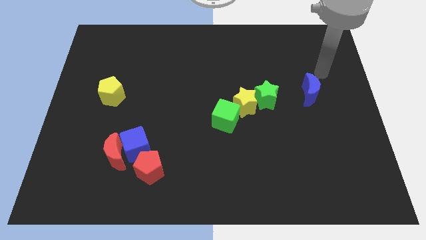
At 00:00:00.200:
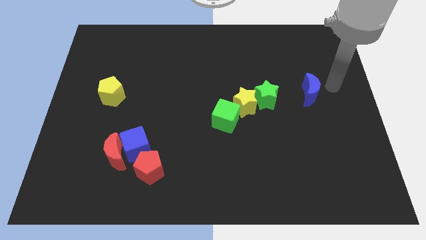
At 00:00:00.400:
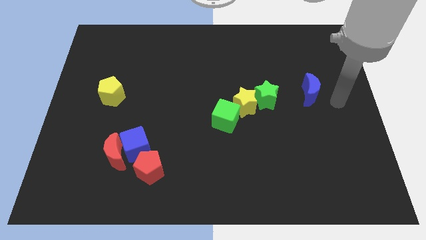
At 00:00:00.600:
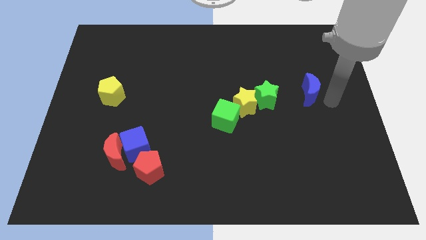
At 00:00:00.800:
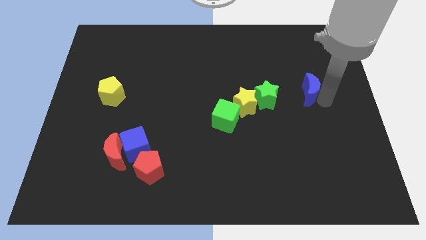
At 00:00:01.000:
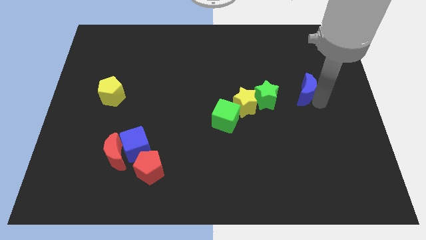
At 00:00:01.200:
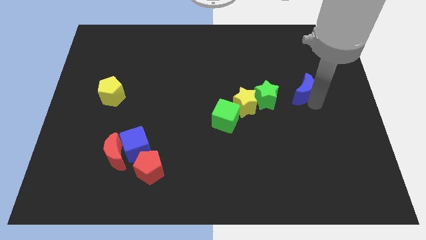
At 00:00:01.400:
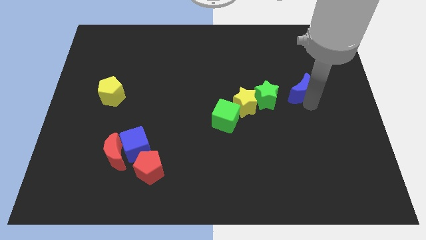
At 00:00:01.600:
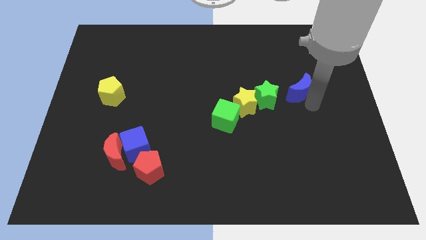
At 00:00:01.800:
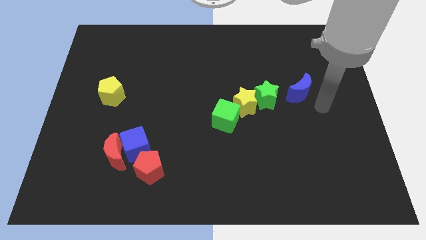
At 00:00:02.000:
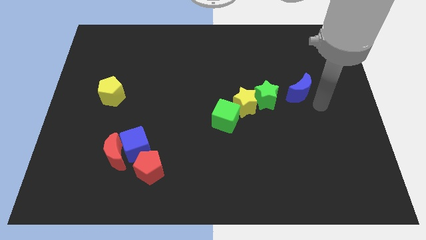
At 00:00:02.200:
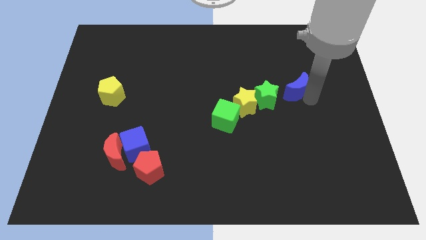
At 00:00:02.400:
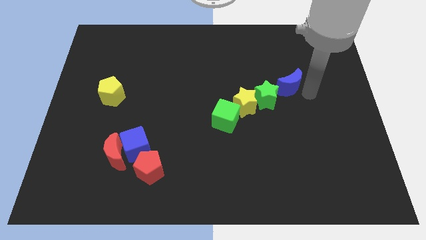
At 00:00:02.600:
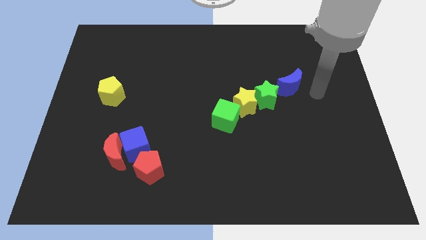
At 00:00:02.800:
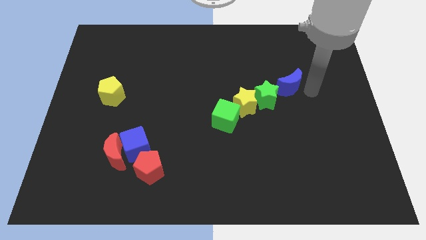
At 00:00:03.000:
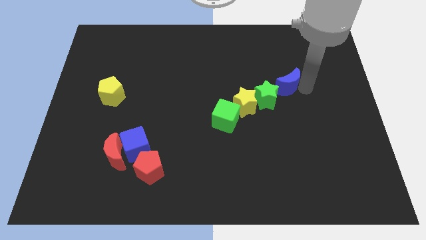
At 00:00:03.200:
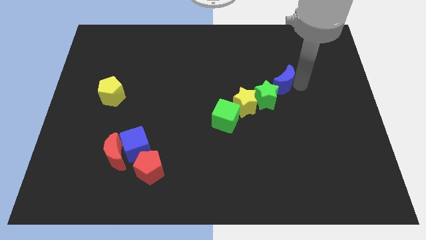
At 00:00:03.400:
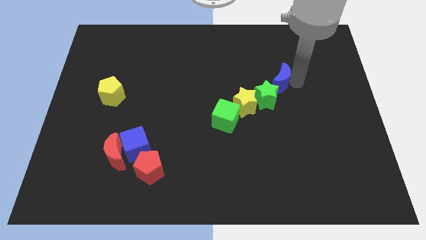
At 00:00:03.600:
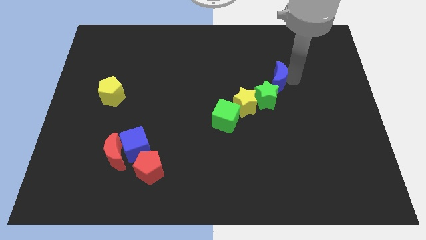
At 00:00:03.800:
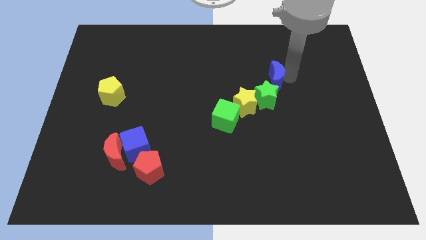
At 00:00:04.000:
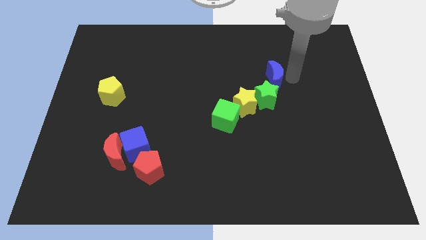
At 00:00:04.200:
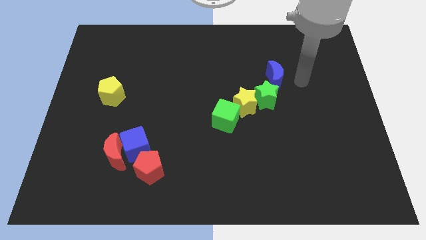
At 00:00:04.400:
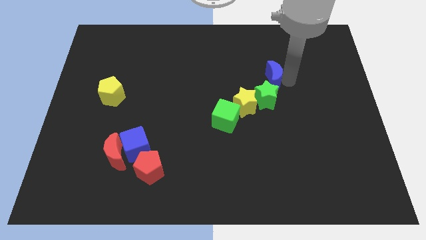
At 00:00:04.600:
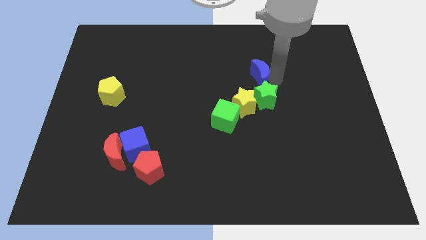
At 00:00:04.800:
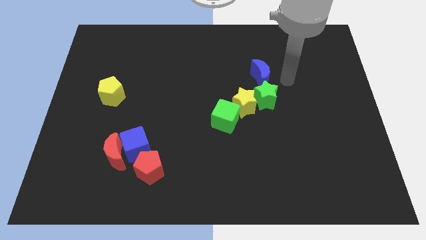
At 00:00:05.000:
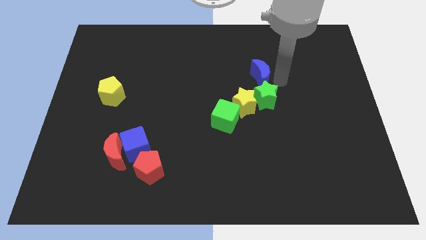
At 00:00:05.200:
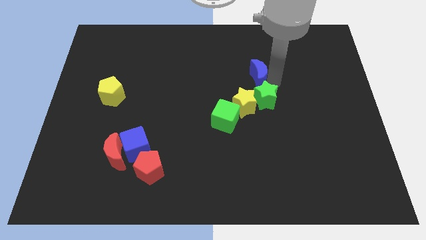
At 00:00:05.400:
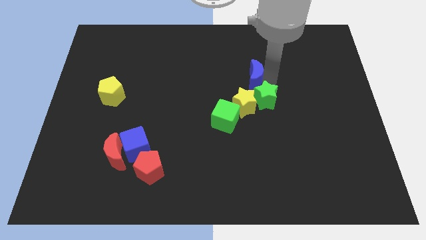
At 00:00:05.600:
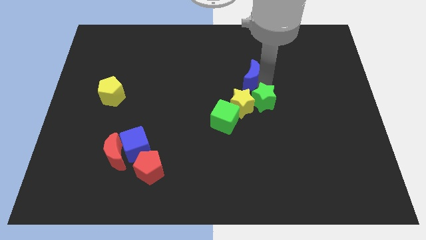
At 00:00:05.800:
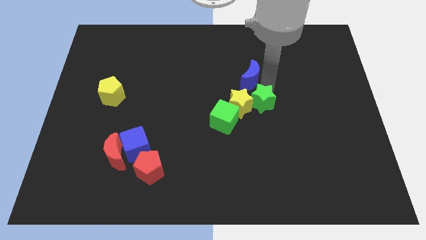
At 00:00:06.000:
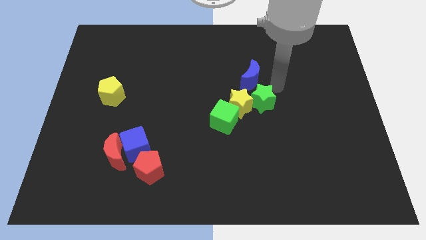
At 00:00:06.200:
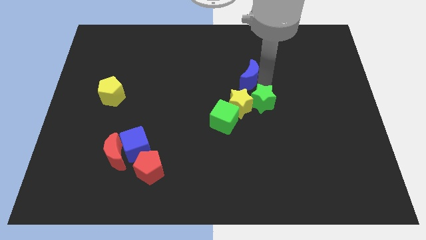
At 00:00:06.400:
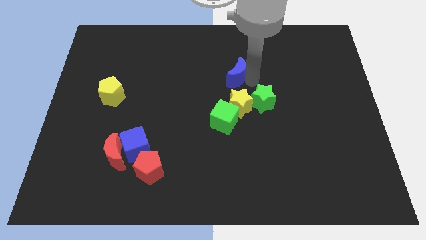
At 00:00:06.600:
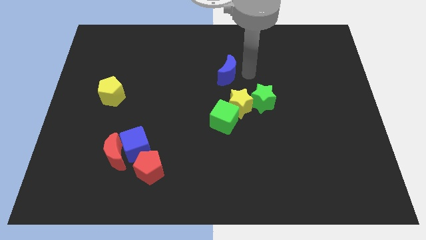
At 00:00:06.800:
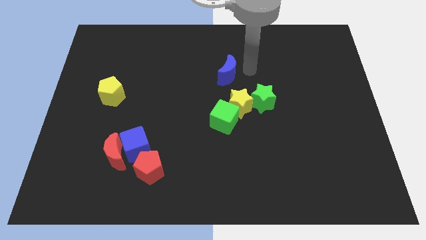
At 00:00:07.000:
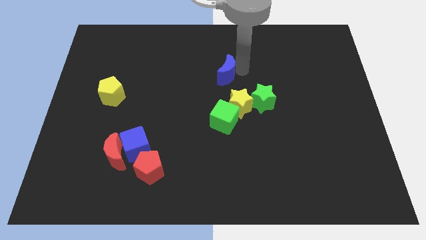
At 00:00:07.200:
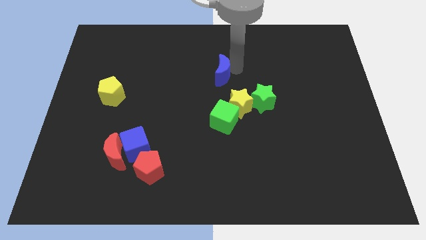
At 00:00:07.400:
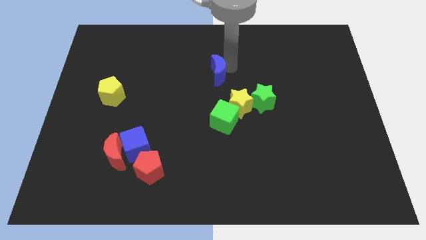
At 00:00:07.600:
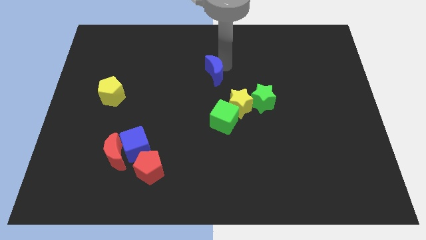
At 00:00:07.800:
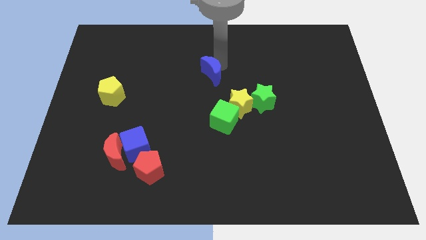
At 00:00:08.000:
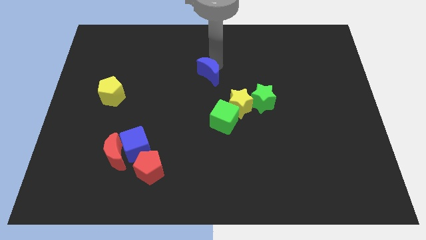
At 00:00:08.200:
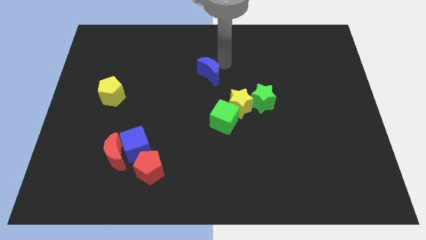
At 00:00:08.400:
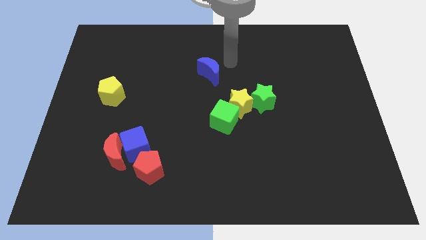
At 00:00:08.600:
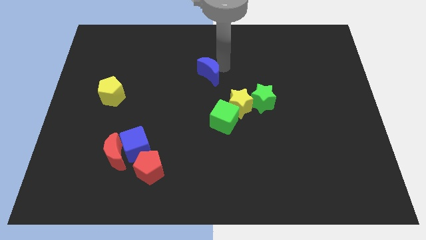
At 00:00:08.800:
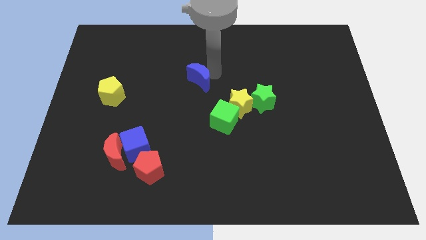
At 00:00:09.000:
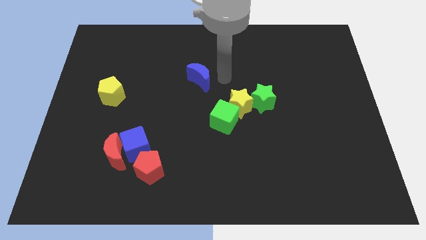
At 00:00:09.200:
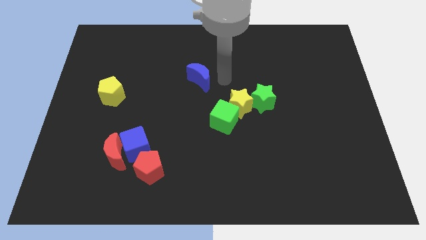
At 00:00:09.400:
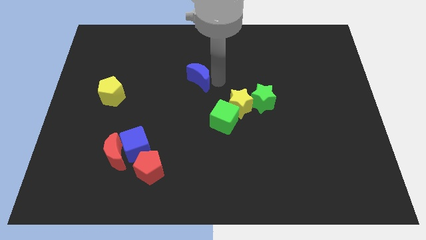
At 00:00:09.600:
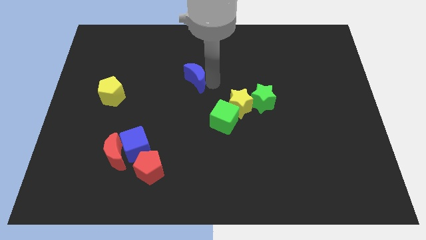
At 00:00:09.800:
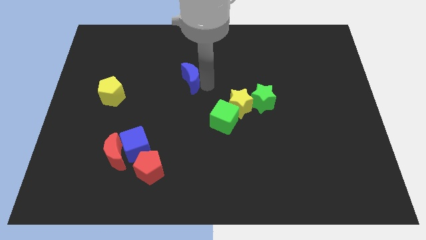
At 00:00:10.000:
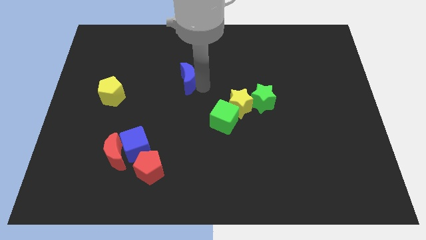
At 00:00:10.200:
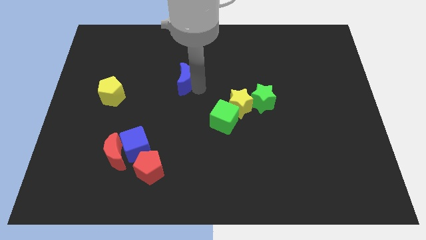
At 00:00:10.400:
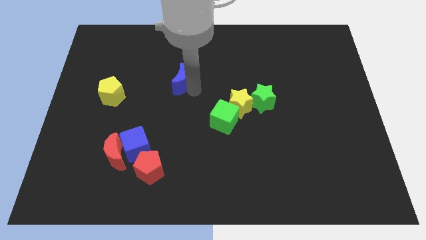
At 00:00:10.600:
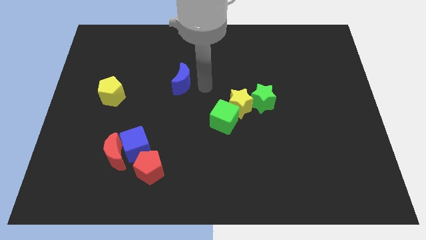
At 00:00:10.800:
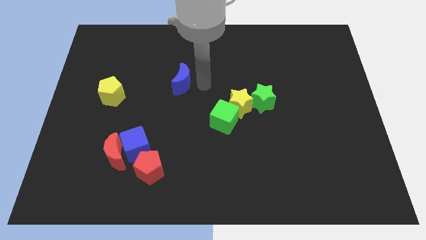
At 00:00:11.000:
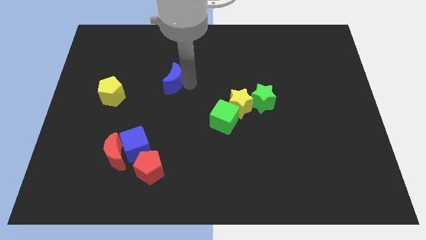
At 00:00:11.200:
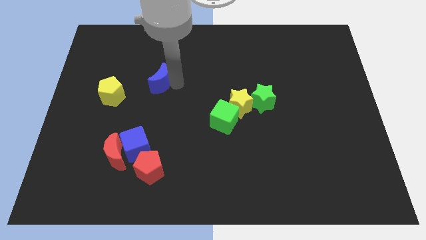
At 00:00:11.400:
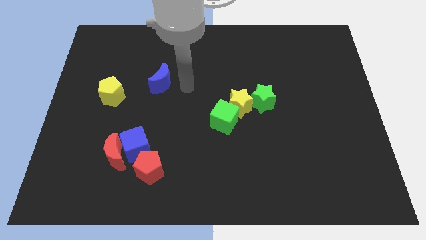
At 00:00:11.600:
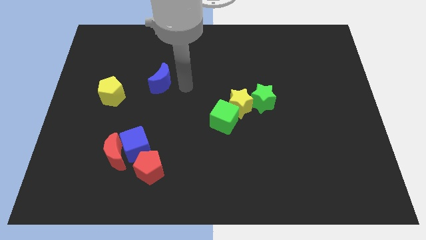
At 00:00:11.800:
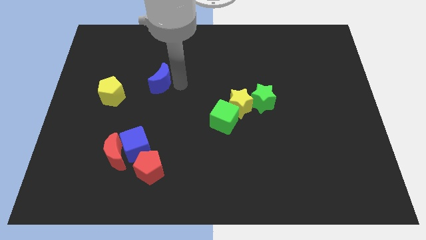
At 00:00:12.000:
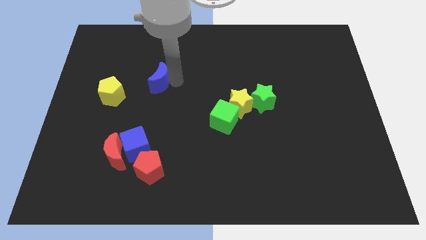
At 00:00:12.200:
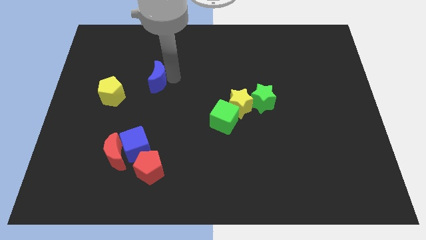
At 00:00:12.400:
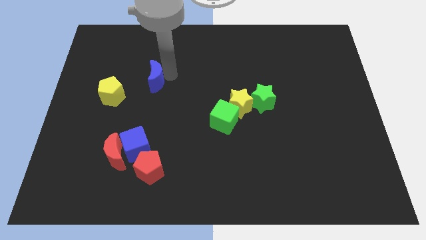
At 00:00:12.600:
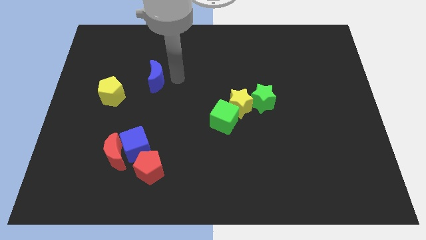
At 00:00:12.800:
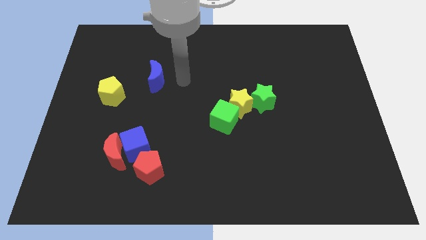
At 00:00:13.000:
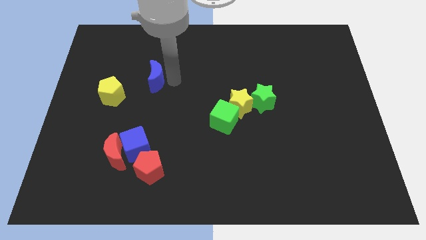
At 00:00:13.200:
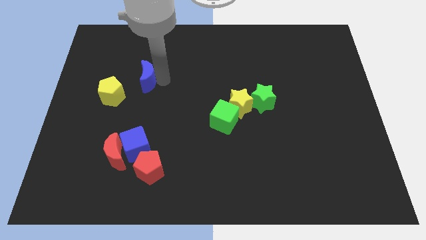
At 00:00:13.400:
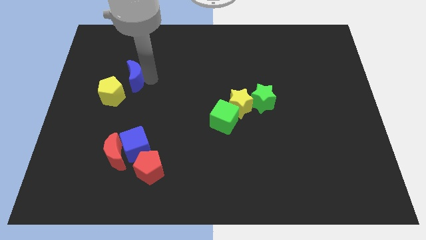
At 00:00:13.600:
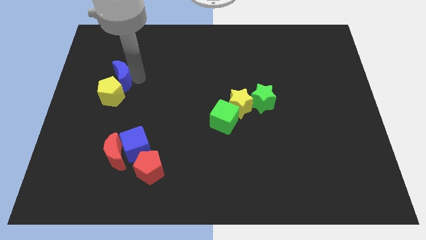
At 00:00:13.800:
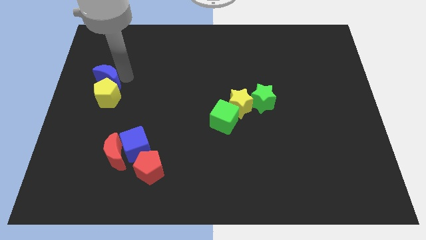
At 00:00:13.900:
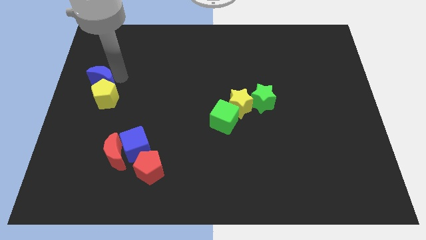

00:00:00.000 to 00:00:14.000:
move the blue moon to the center left

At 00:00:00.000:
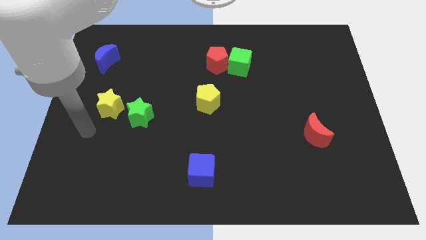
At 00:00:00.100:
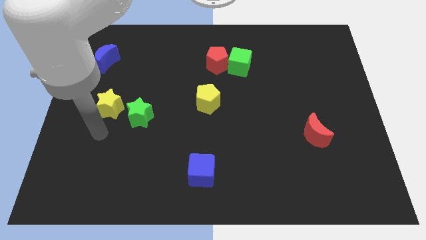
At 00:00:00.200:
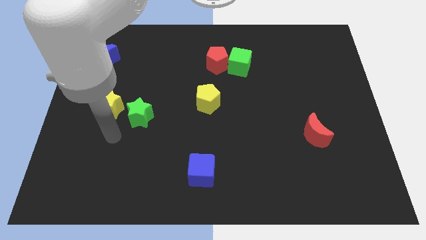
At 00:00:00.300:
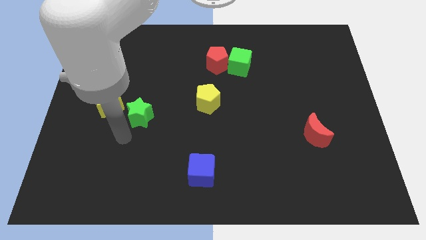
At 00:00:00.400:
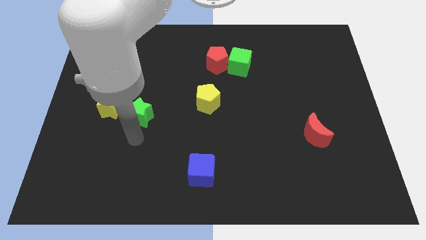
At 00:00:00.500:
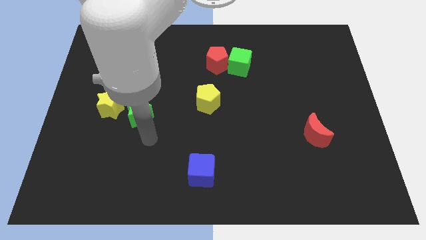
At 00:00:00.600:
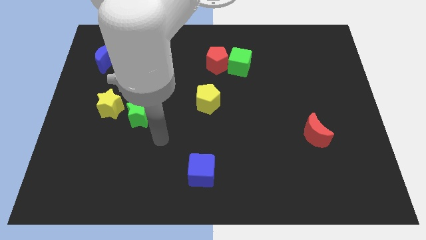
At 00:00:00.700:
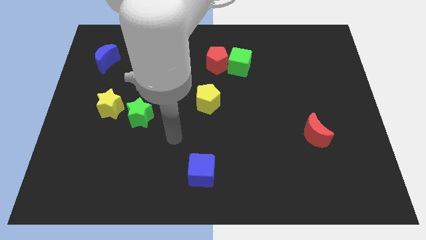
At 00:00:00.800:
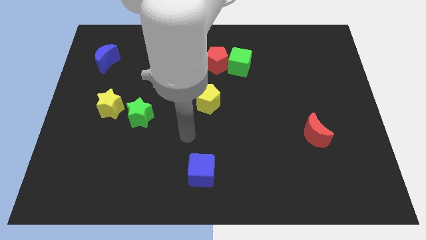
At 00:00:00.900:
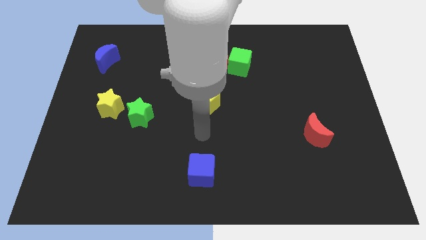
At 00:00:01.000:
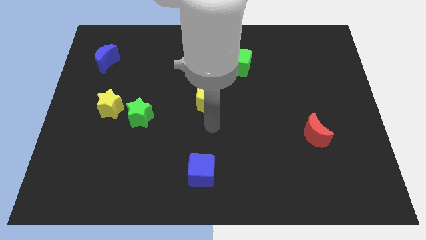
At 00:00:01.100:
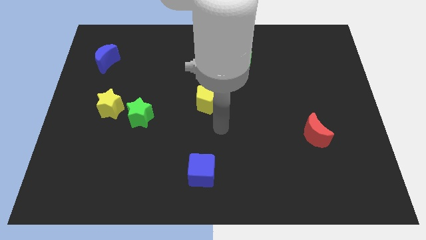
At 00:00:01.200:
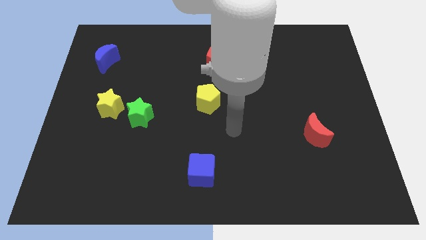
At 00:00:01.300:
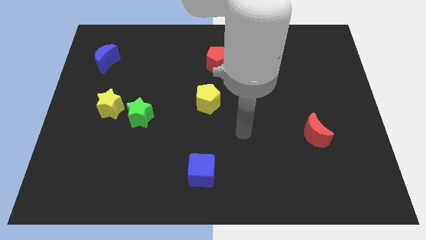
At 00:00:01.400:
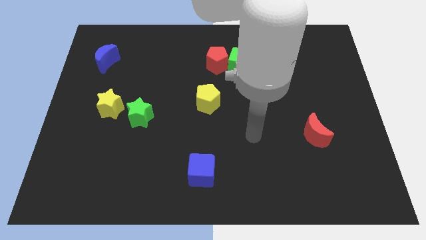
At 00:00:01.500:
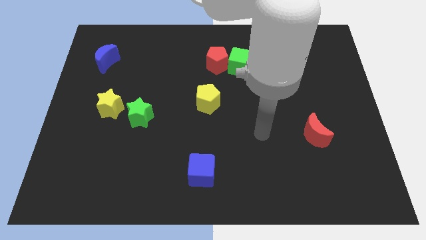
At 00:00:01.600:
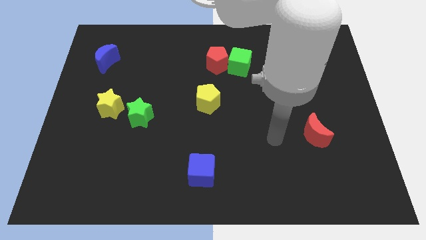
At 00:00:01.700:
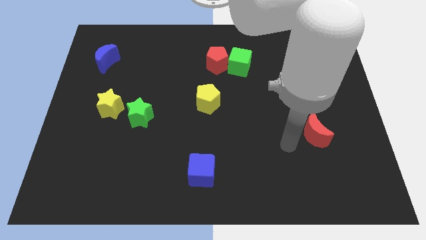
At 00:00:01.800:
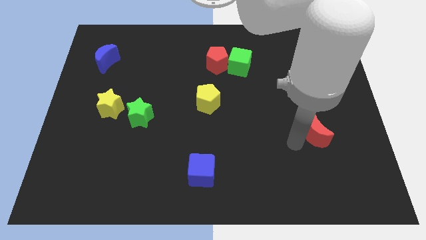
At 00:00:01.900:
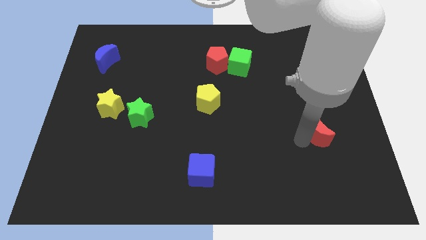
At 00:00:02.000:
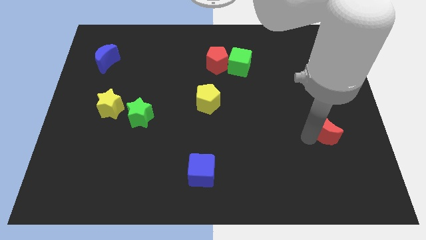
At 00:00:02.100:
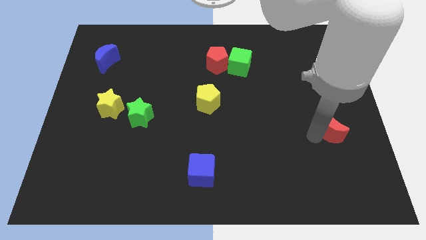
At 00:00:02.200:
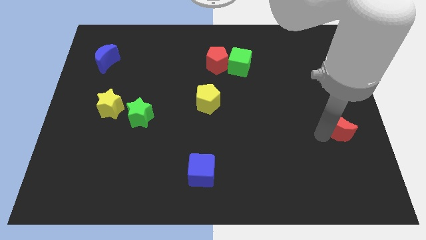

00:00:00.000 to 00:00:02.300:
slide the red moon to the right side
